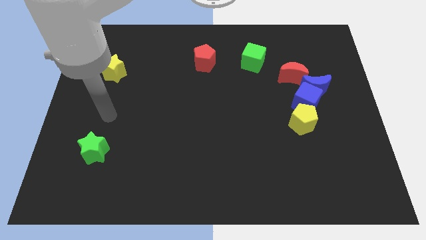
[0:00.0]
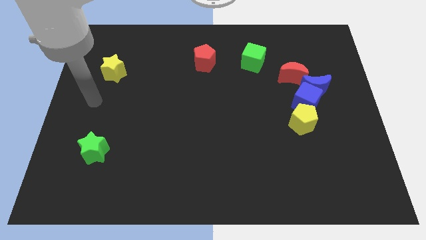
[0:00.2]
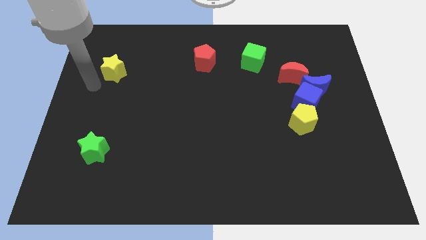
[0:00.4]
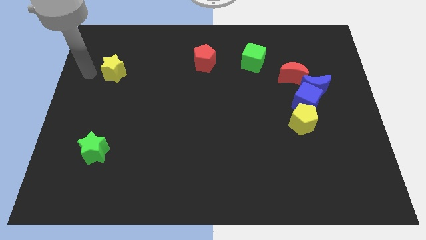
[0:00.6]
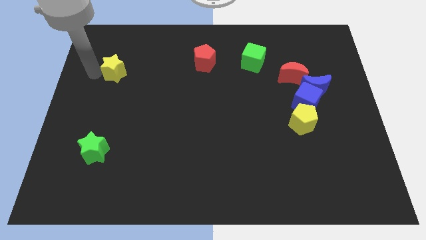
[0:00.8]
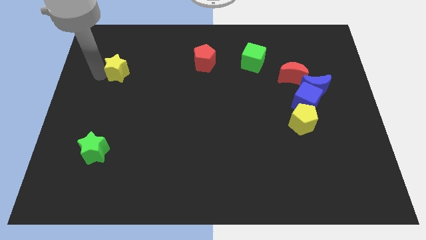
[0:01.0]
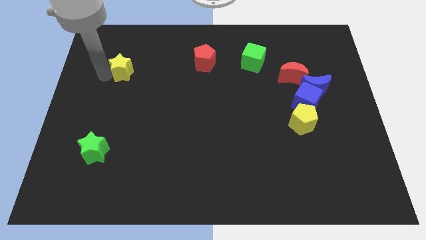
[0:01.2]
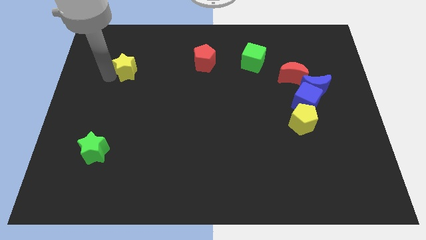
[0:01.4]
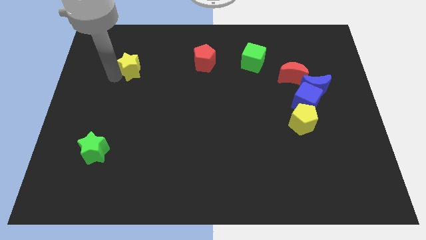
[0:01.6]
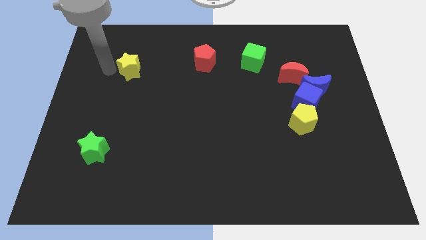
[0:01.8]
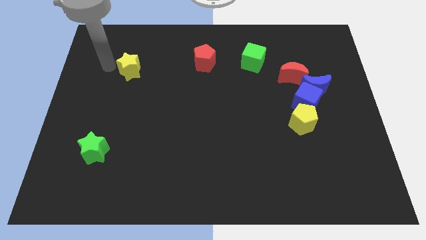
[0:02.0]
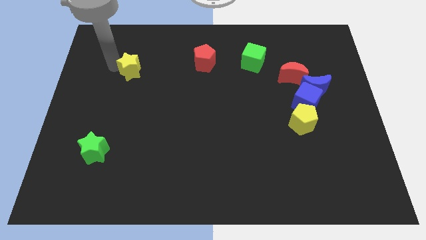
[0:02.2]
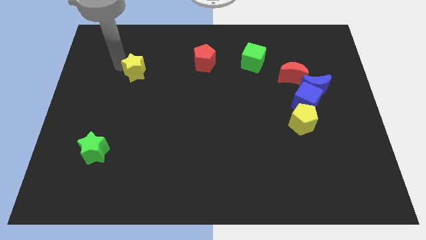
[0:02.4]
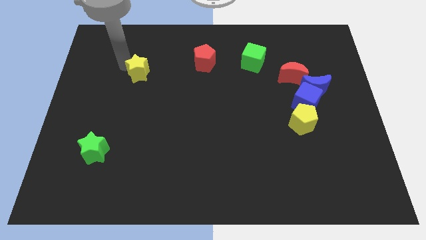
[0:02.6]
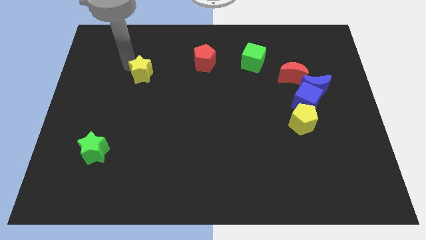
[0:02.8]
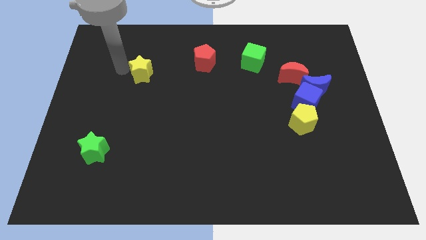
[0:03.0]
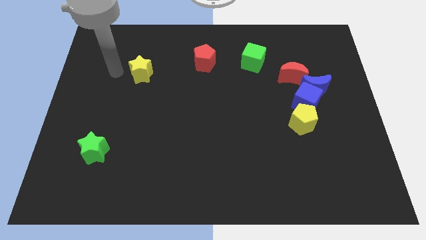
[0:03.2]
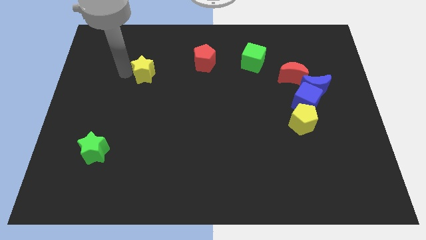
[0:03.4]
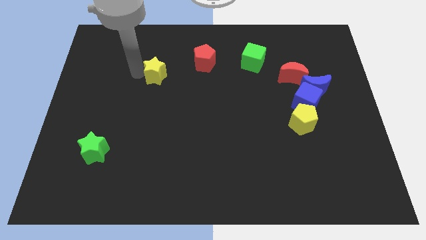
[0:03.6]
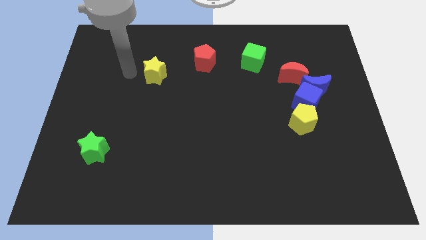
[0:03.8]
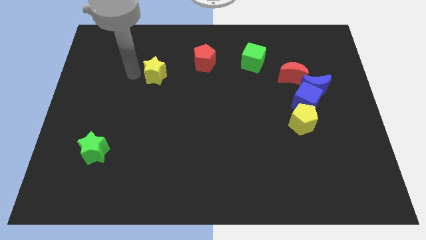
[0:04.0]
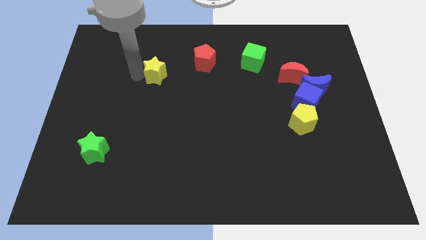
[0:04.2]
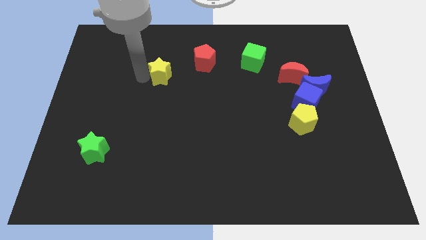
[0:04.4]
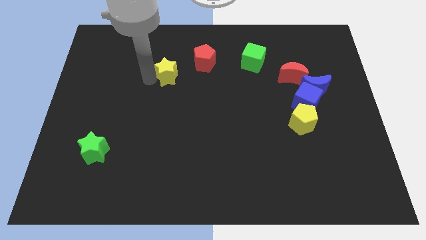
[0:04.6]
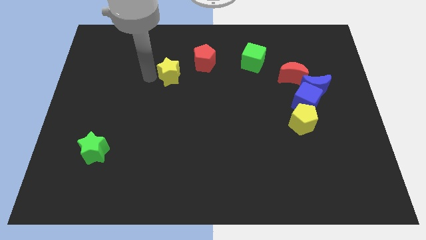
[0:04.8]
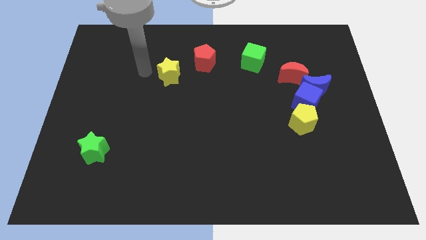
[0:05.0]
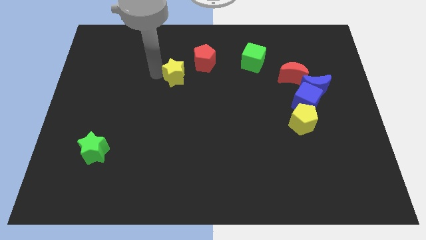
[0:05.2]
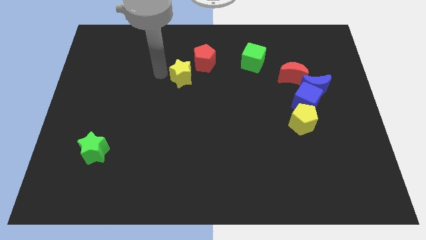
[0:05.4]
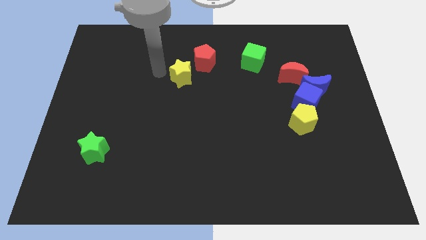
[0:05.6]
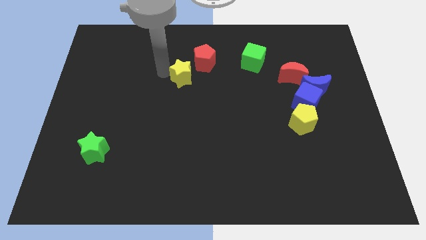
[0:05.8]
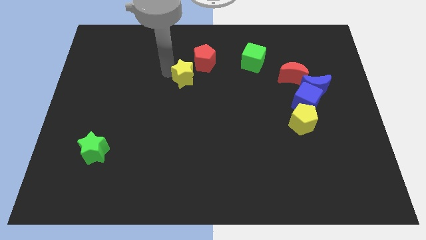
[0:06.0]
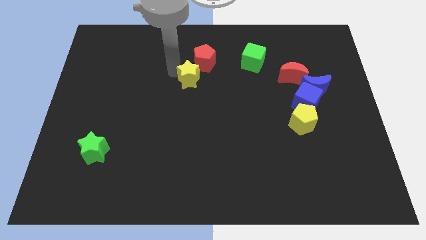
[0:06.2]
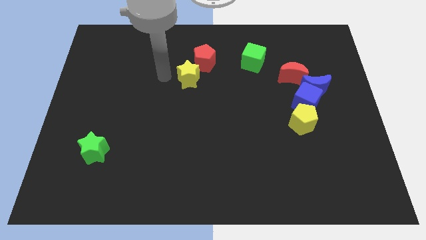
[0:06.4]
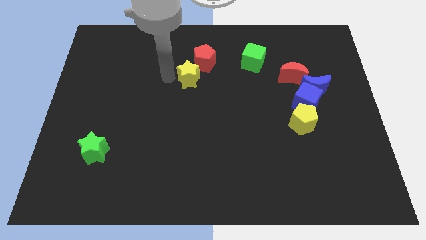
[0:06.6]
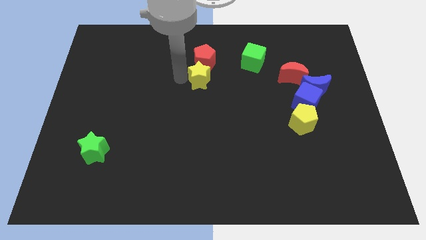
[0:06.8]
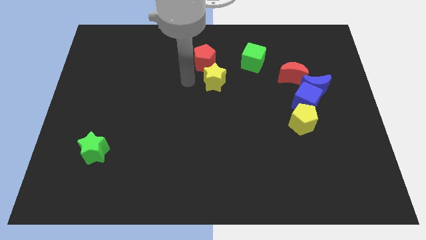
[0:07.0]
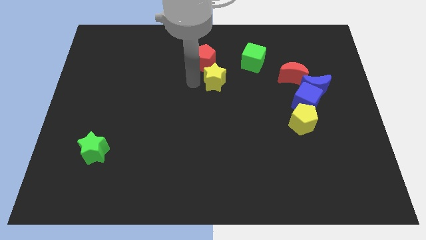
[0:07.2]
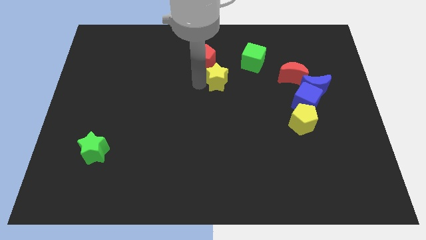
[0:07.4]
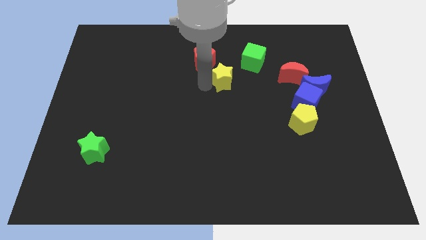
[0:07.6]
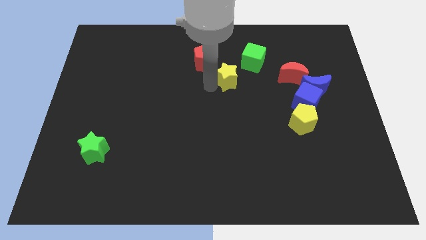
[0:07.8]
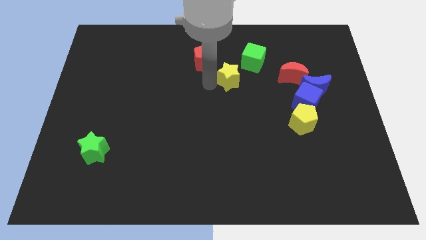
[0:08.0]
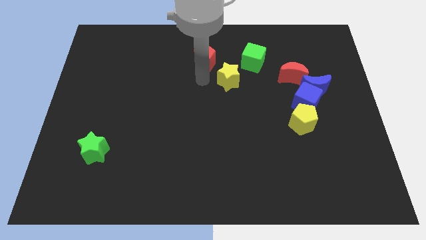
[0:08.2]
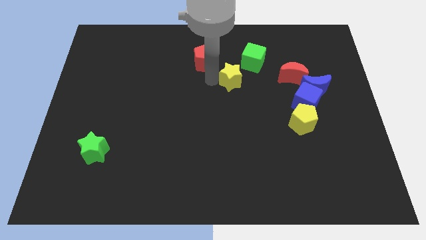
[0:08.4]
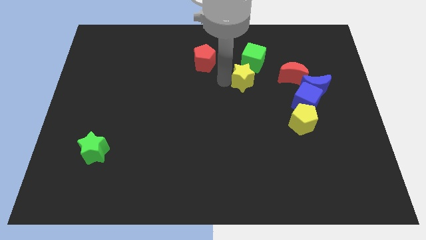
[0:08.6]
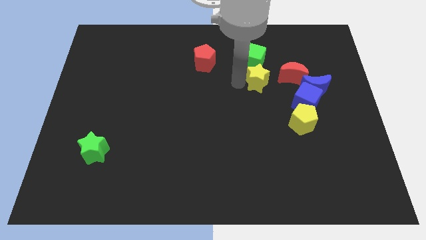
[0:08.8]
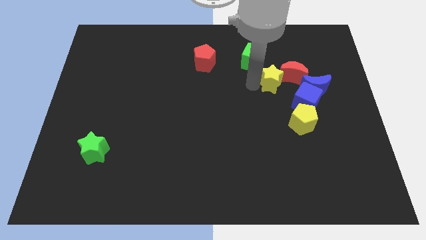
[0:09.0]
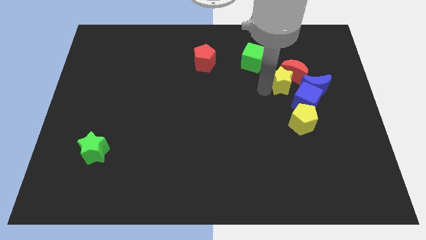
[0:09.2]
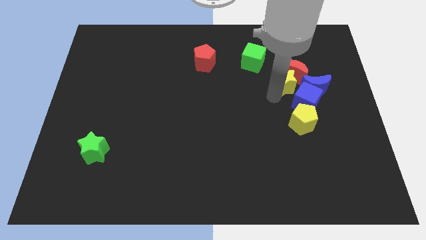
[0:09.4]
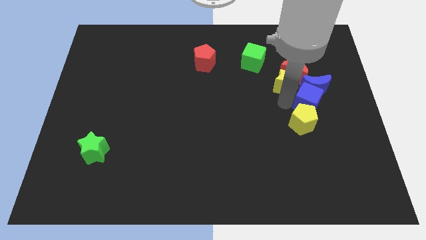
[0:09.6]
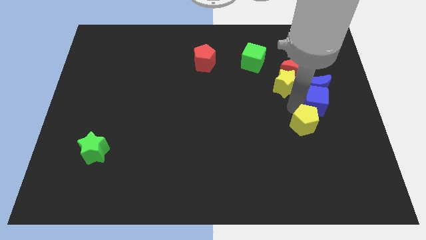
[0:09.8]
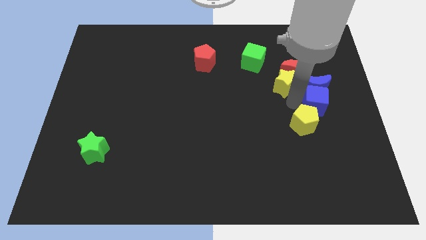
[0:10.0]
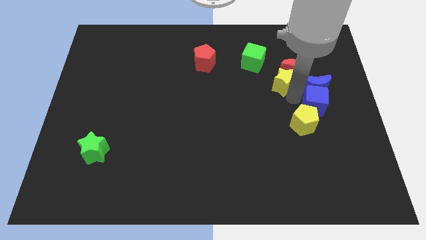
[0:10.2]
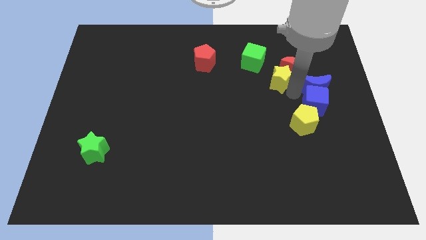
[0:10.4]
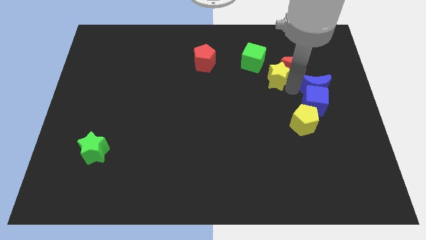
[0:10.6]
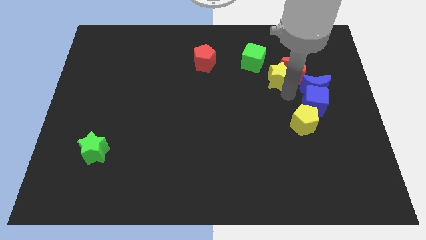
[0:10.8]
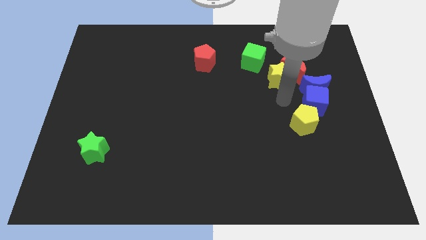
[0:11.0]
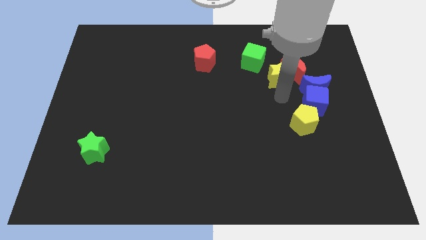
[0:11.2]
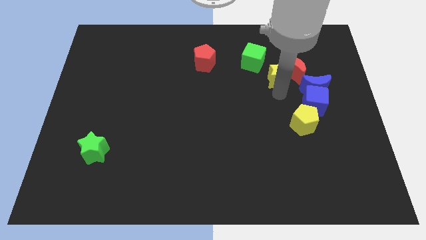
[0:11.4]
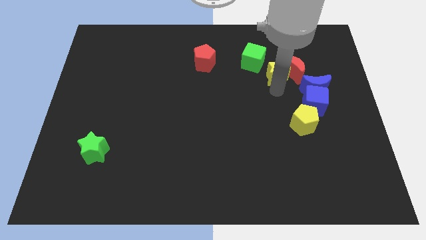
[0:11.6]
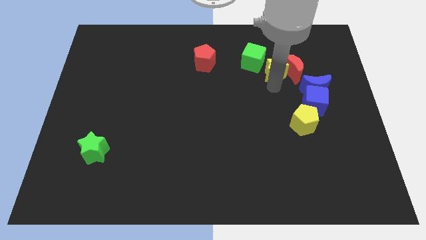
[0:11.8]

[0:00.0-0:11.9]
slide the yellow star right of the green cube

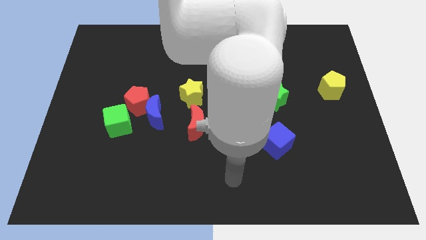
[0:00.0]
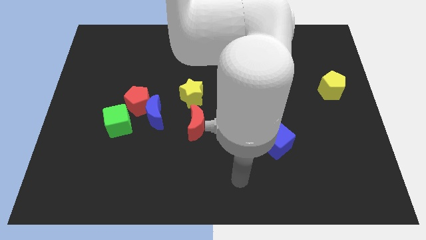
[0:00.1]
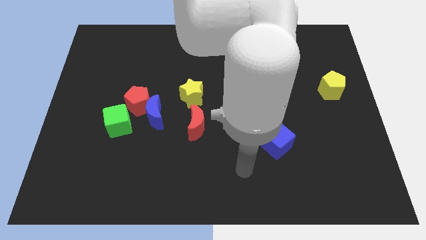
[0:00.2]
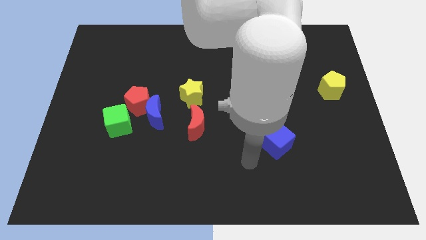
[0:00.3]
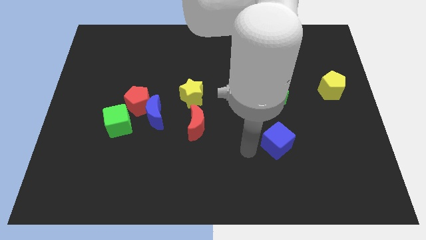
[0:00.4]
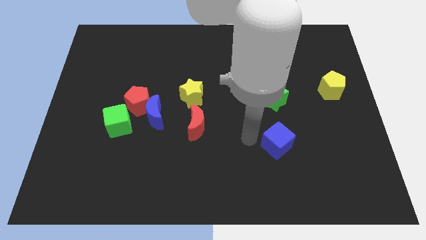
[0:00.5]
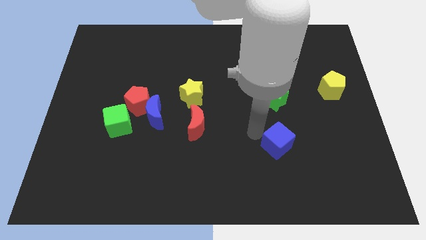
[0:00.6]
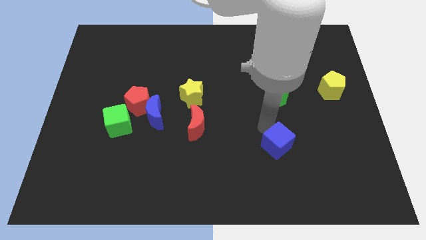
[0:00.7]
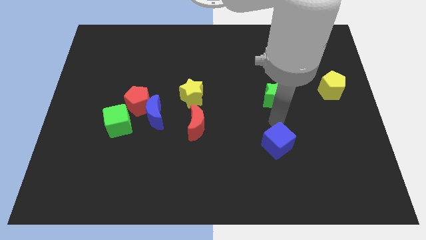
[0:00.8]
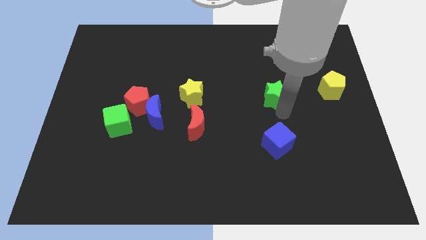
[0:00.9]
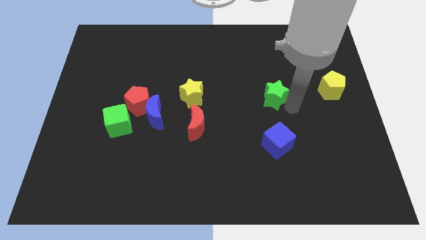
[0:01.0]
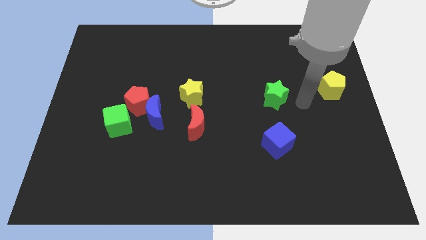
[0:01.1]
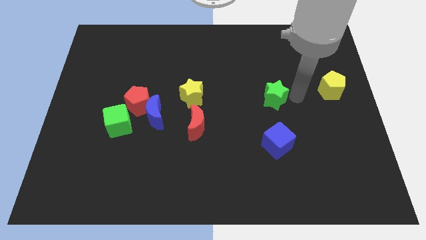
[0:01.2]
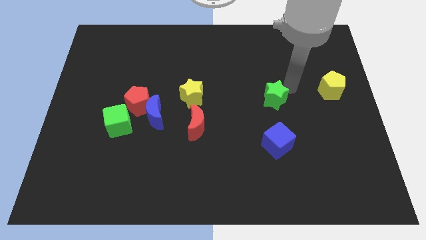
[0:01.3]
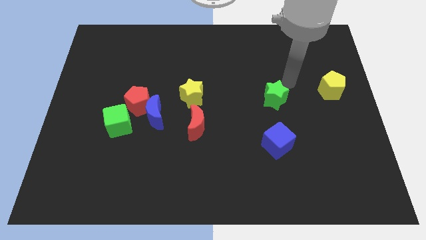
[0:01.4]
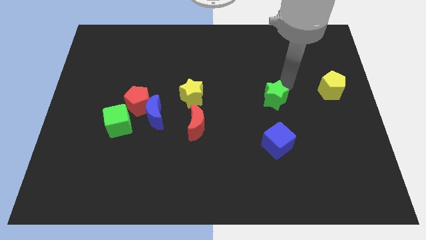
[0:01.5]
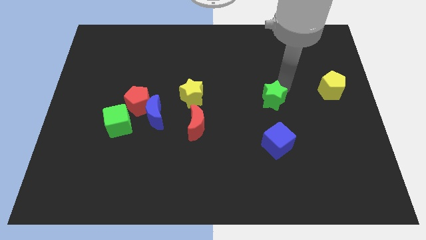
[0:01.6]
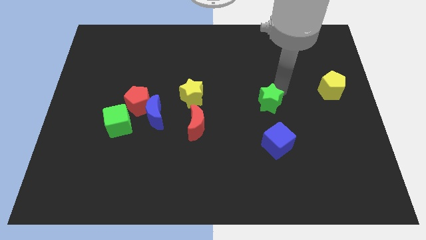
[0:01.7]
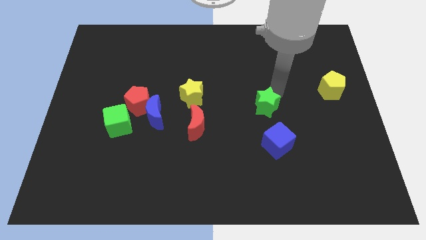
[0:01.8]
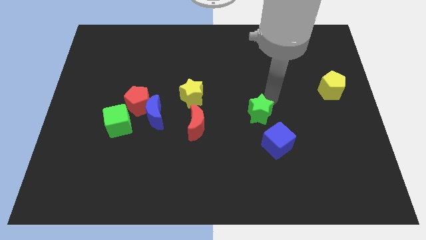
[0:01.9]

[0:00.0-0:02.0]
move the green star right of the red moon
